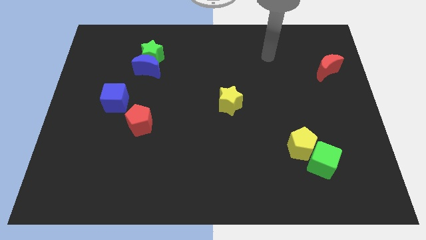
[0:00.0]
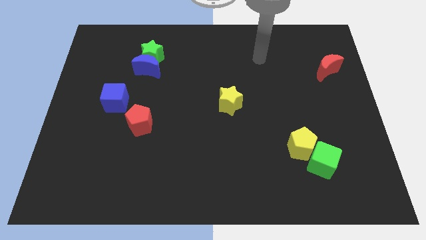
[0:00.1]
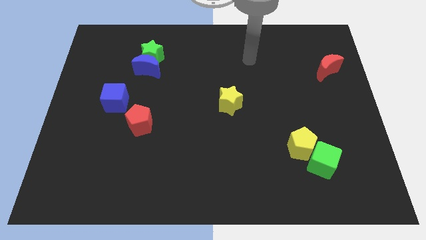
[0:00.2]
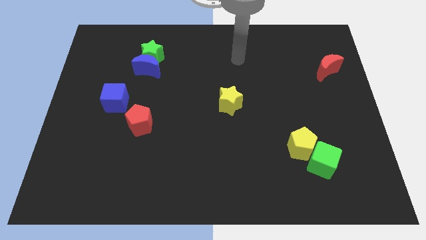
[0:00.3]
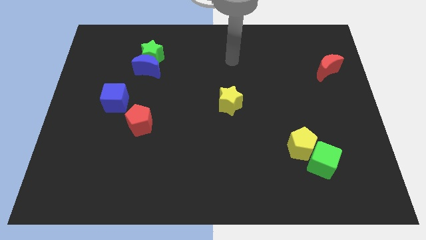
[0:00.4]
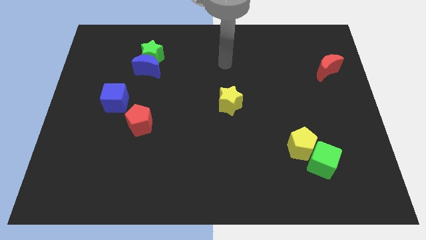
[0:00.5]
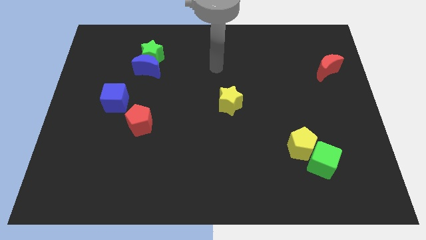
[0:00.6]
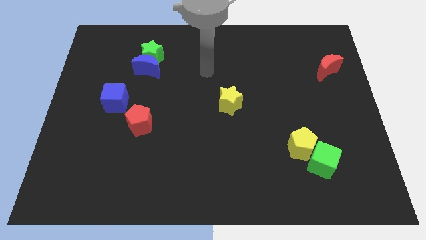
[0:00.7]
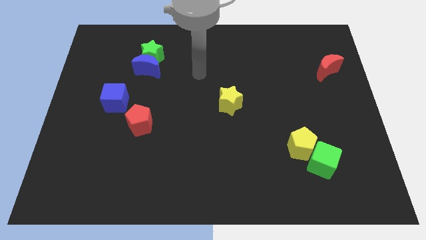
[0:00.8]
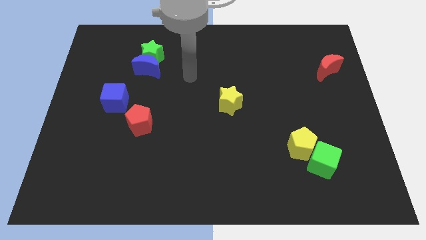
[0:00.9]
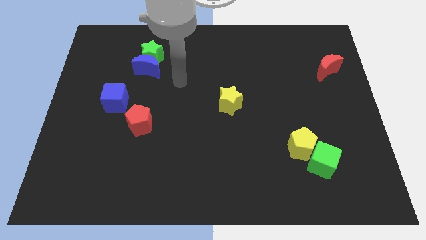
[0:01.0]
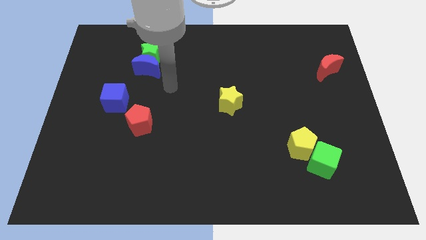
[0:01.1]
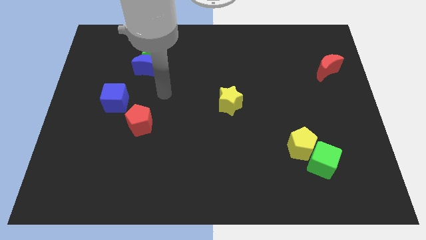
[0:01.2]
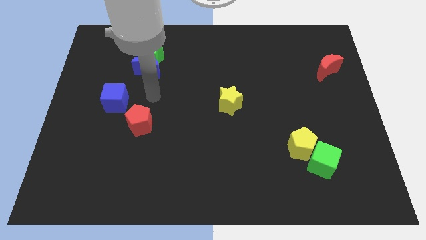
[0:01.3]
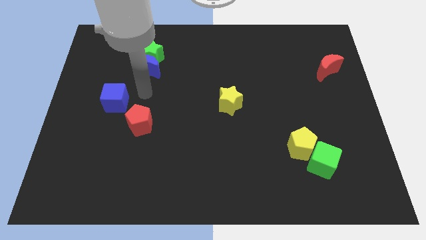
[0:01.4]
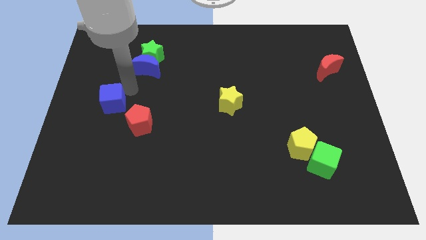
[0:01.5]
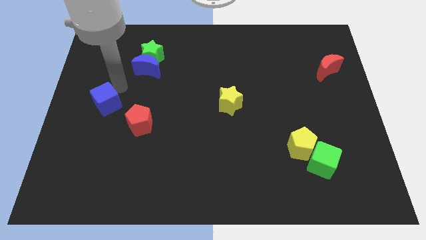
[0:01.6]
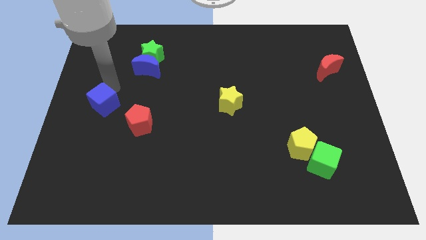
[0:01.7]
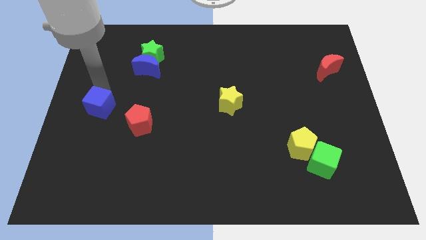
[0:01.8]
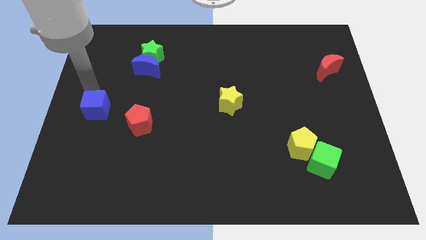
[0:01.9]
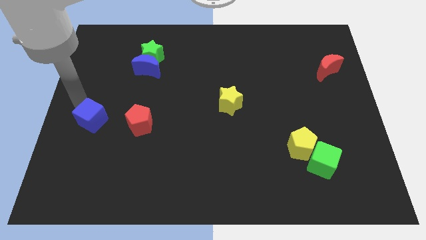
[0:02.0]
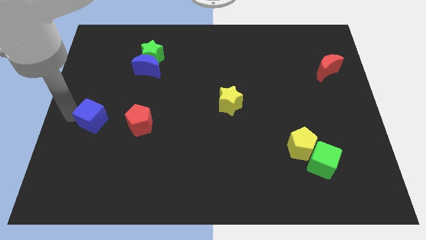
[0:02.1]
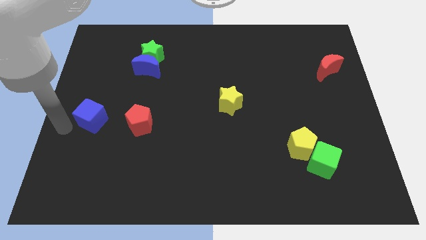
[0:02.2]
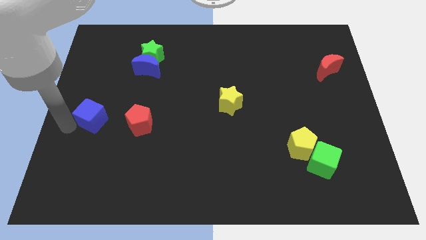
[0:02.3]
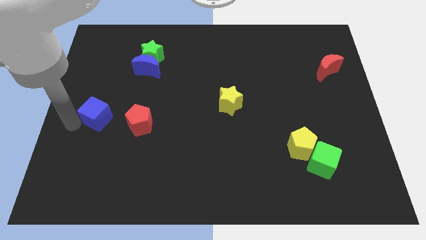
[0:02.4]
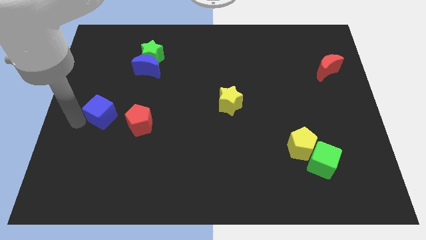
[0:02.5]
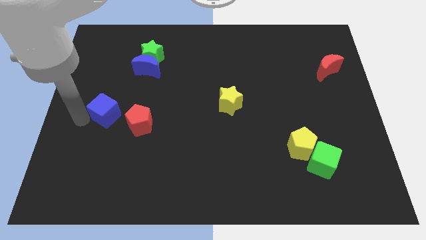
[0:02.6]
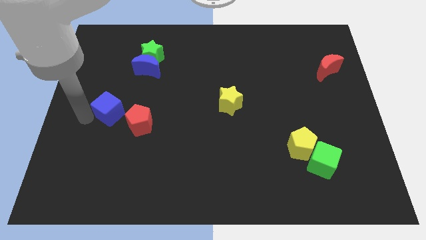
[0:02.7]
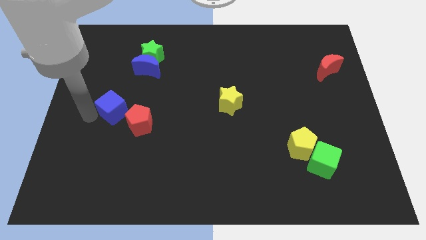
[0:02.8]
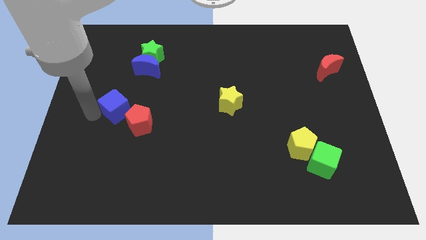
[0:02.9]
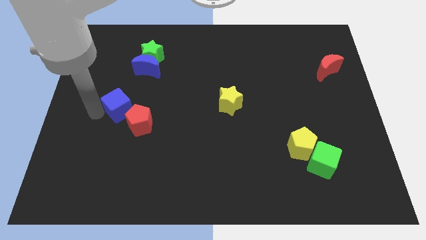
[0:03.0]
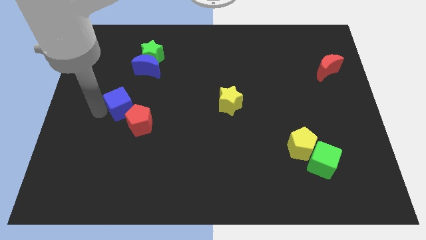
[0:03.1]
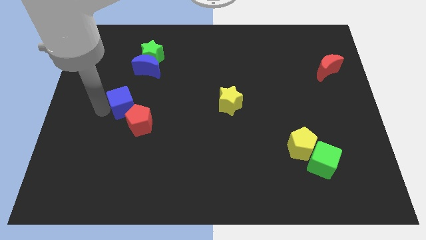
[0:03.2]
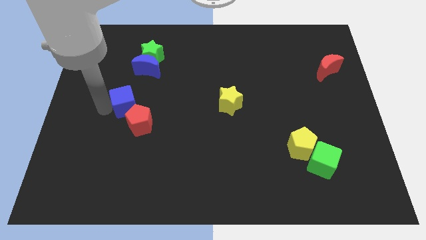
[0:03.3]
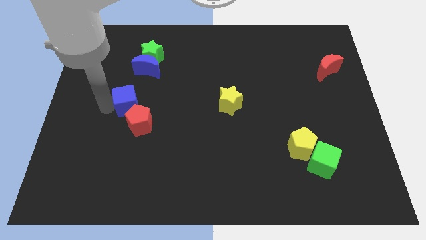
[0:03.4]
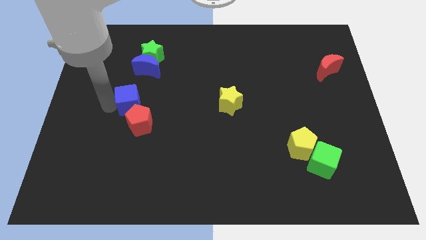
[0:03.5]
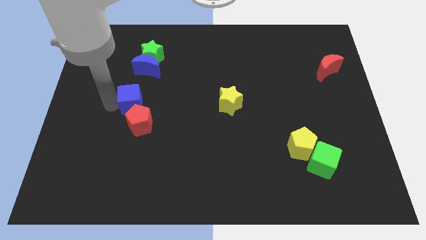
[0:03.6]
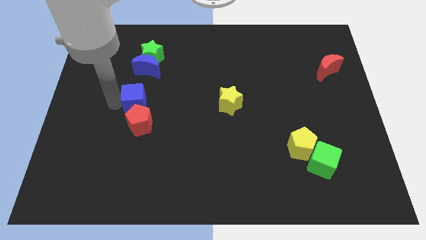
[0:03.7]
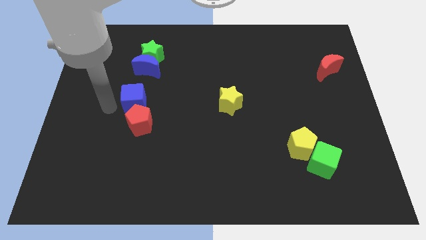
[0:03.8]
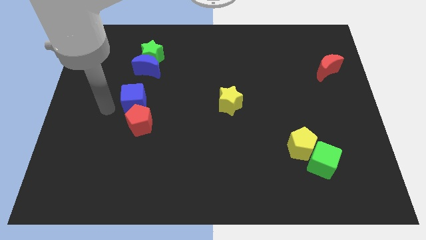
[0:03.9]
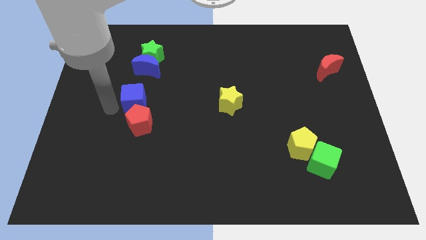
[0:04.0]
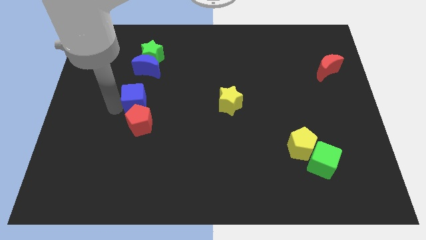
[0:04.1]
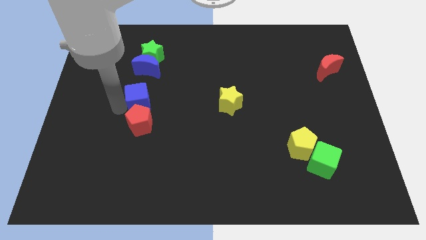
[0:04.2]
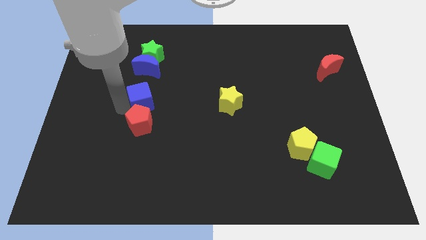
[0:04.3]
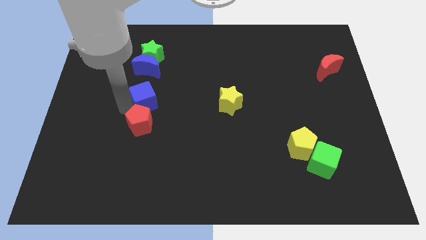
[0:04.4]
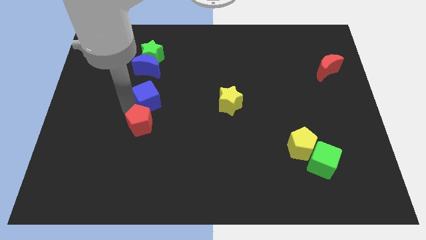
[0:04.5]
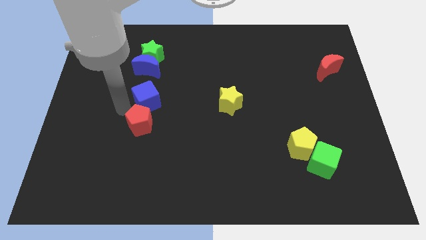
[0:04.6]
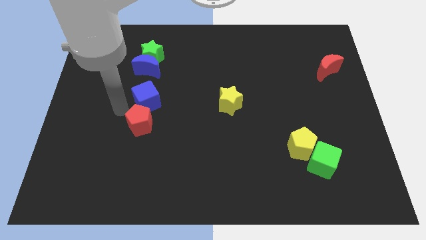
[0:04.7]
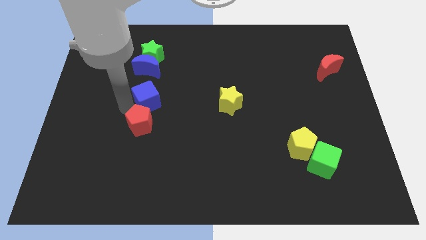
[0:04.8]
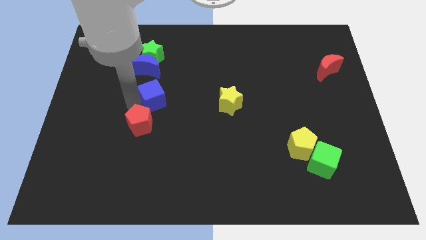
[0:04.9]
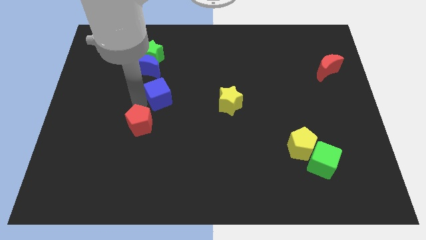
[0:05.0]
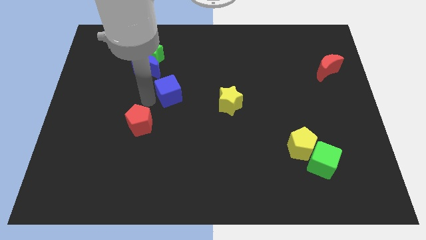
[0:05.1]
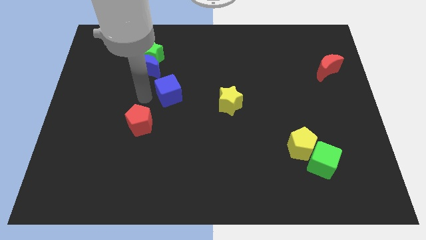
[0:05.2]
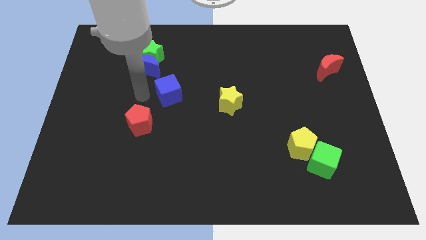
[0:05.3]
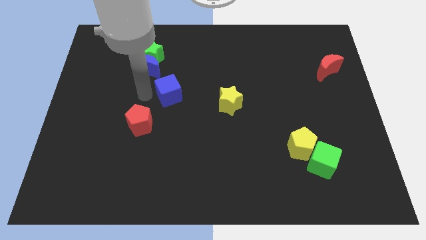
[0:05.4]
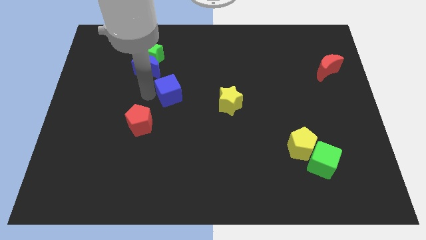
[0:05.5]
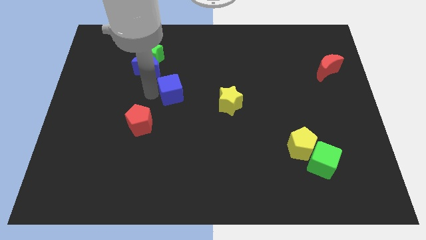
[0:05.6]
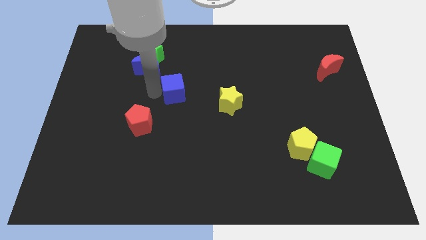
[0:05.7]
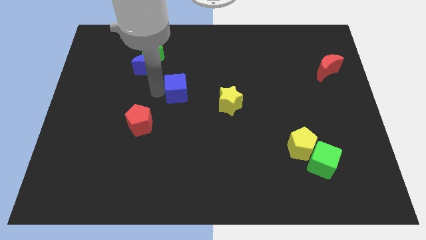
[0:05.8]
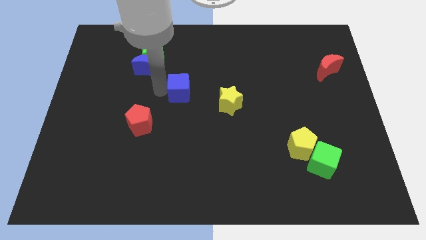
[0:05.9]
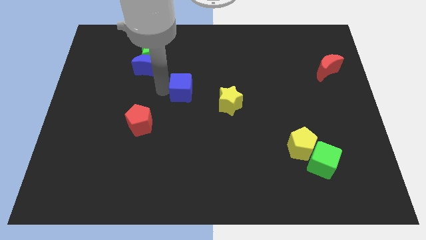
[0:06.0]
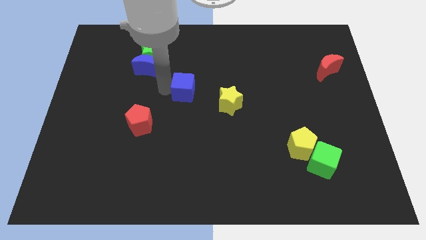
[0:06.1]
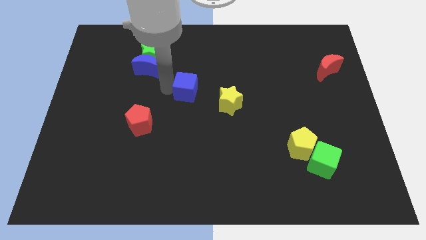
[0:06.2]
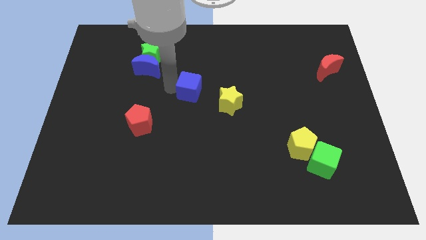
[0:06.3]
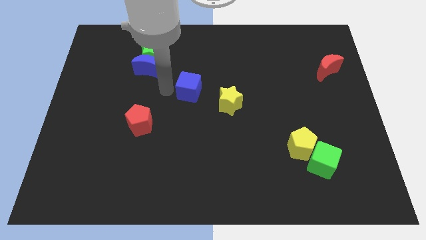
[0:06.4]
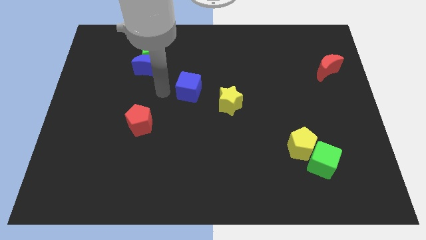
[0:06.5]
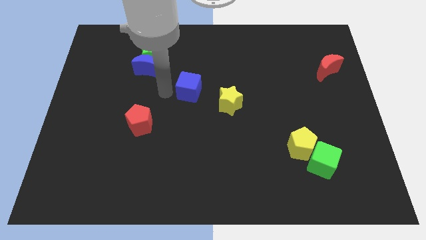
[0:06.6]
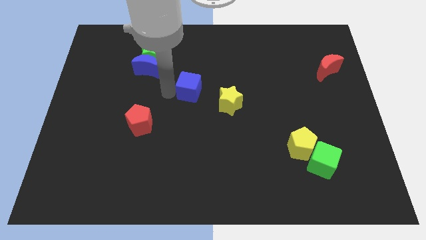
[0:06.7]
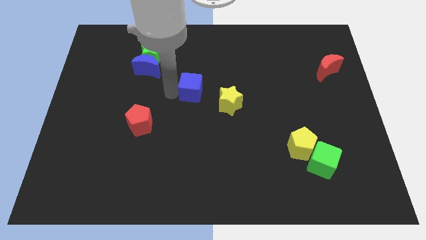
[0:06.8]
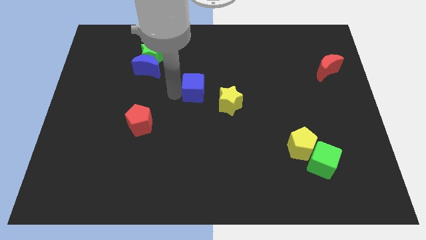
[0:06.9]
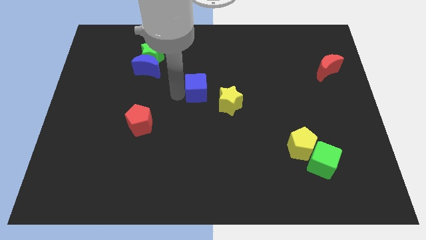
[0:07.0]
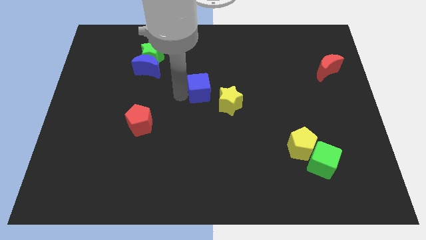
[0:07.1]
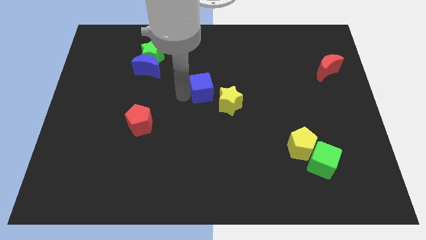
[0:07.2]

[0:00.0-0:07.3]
slide the blue cube to the right

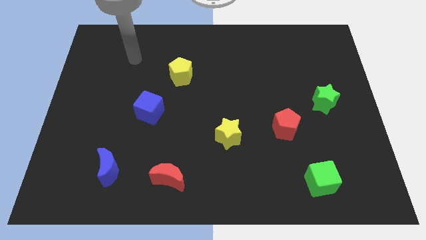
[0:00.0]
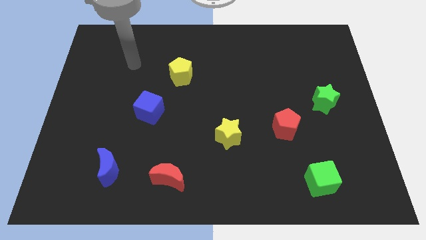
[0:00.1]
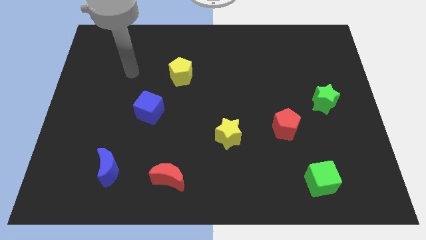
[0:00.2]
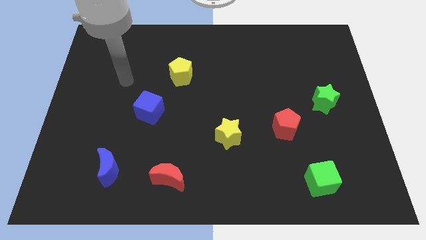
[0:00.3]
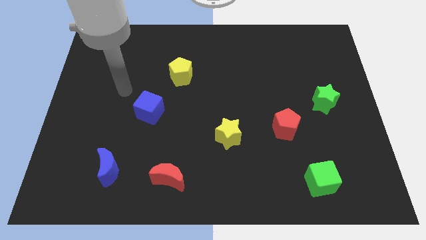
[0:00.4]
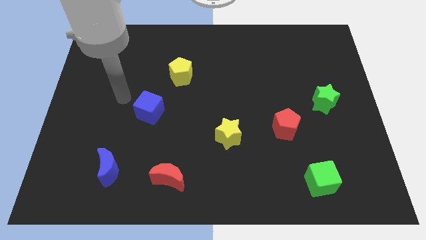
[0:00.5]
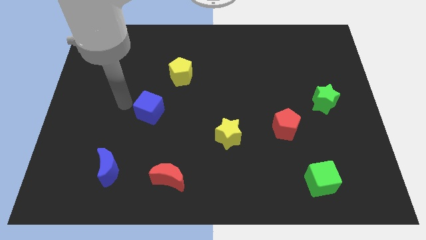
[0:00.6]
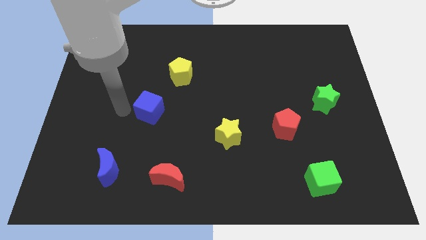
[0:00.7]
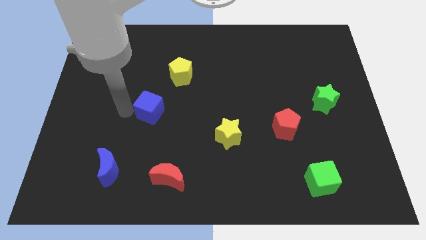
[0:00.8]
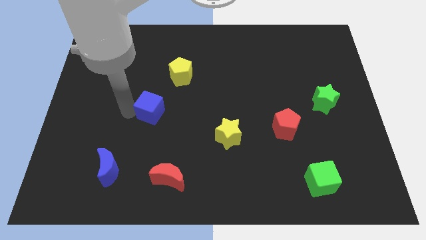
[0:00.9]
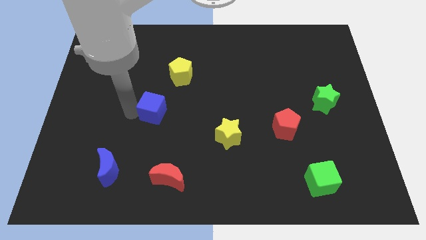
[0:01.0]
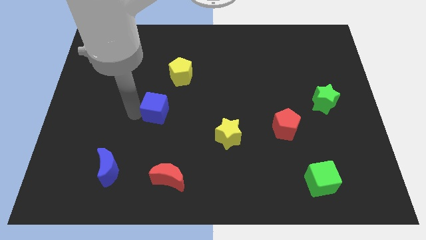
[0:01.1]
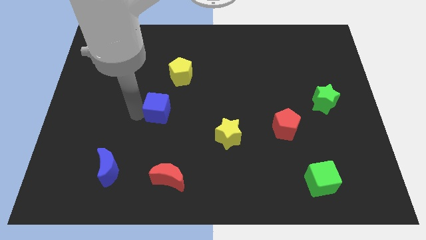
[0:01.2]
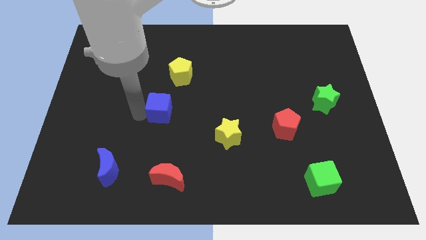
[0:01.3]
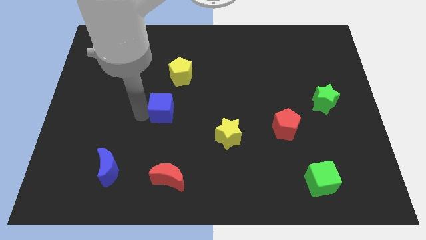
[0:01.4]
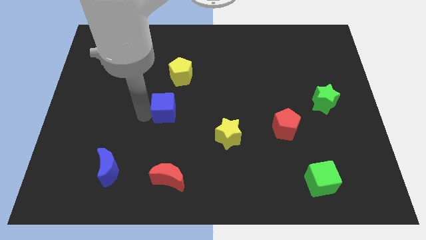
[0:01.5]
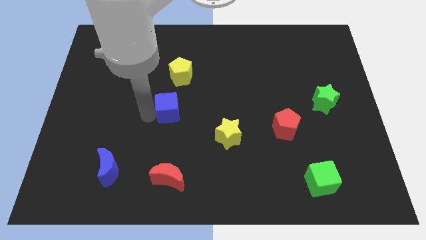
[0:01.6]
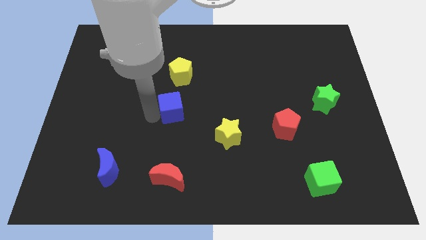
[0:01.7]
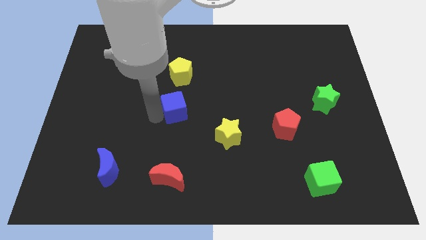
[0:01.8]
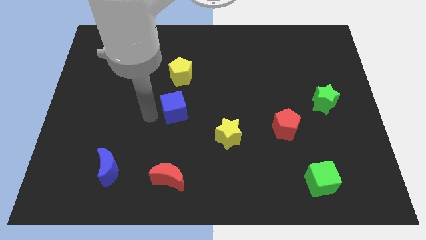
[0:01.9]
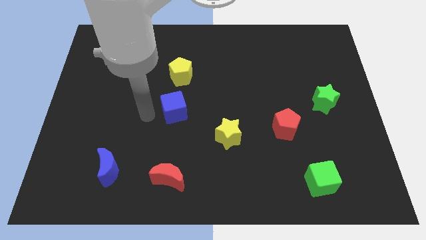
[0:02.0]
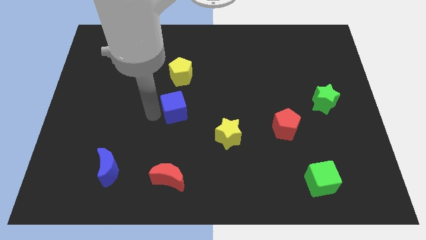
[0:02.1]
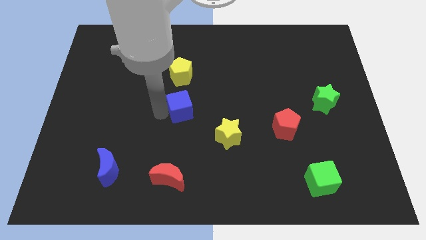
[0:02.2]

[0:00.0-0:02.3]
slide the blue cube right a bit
